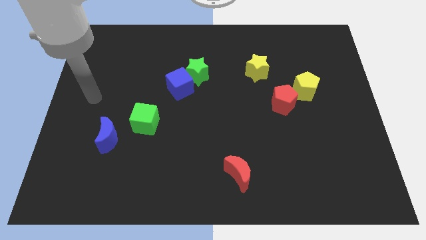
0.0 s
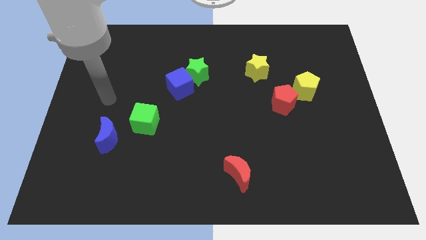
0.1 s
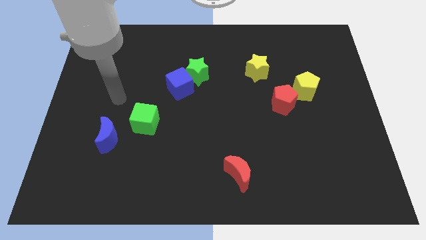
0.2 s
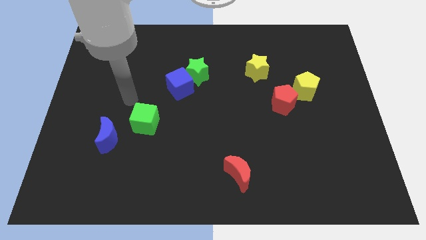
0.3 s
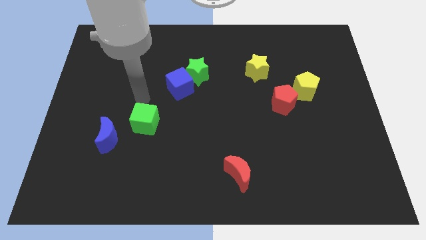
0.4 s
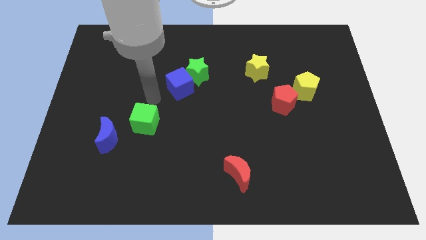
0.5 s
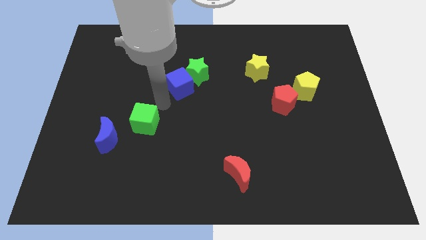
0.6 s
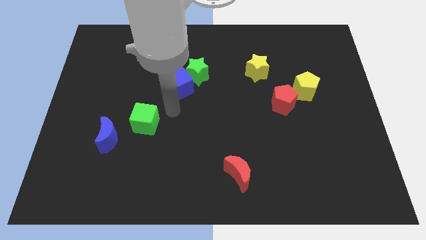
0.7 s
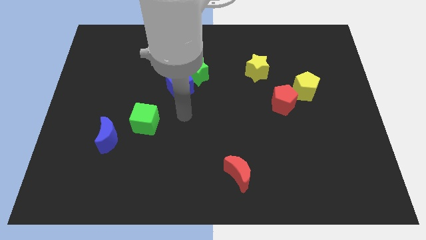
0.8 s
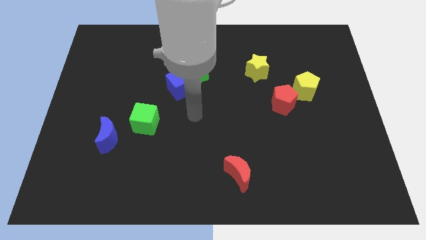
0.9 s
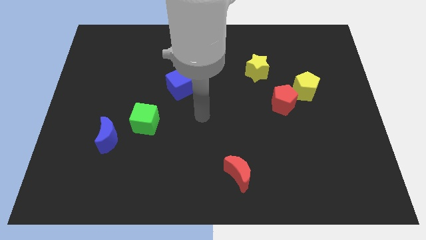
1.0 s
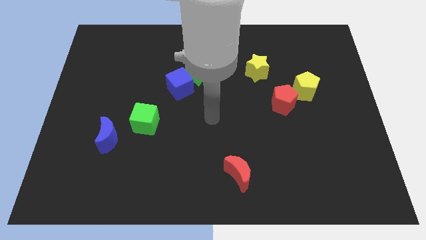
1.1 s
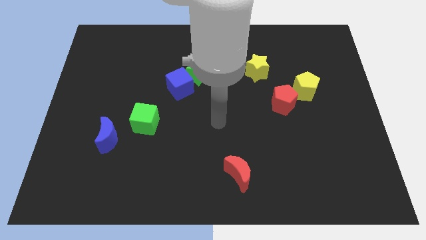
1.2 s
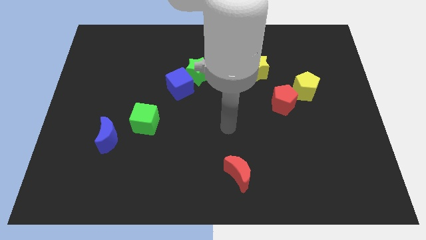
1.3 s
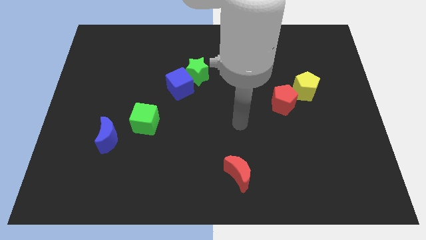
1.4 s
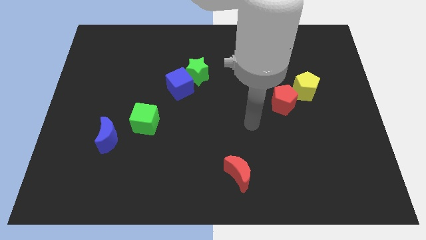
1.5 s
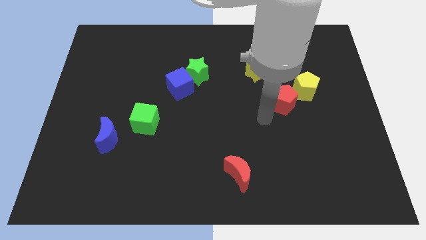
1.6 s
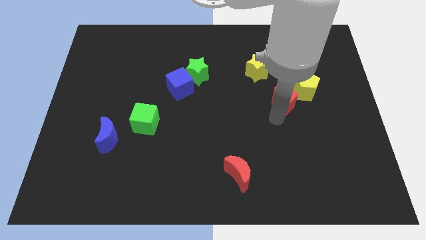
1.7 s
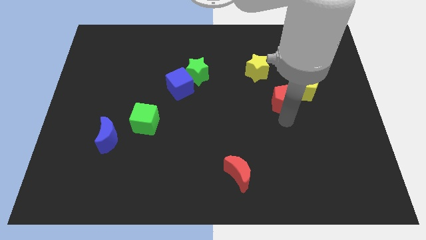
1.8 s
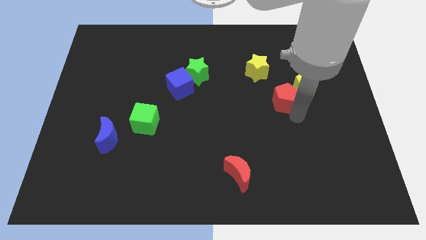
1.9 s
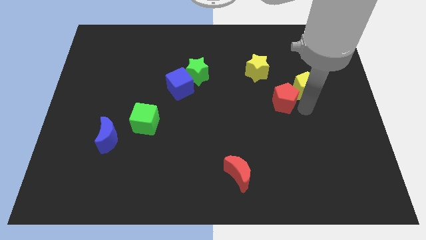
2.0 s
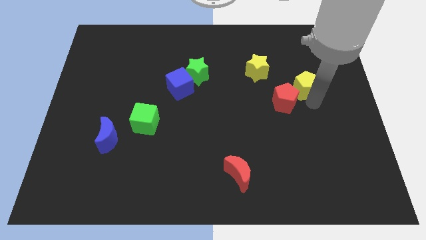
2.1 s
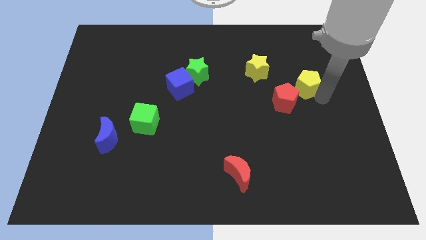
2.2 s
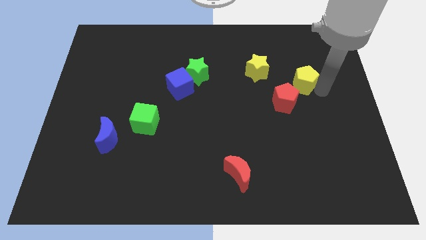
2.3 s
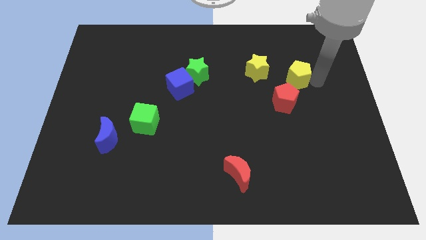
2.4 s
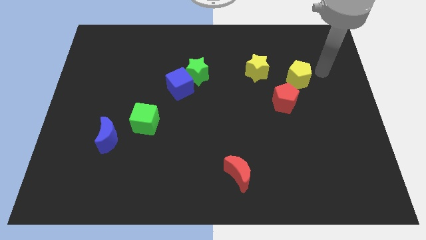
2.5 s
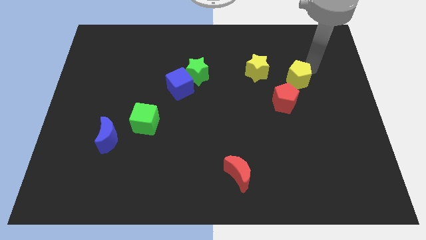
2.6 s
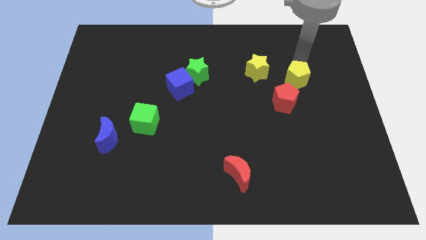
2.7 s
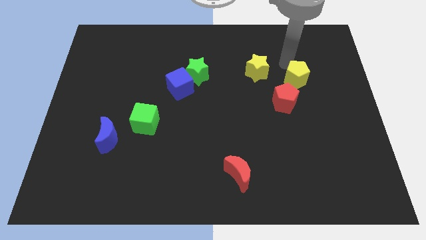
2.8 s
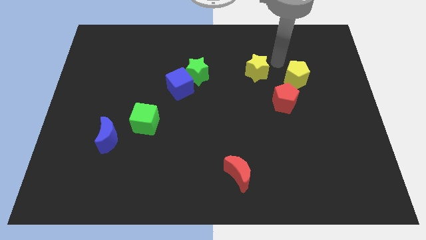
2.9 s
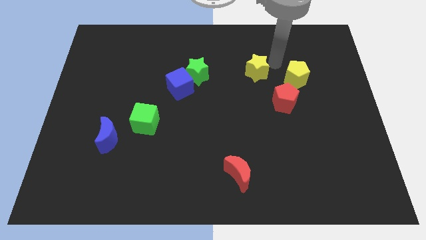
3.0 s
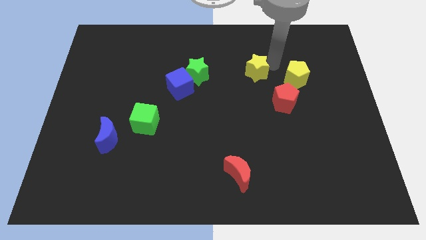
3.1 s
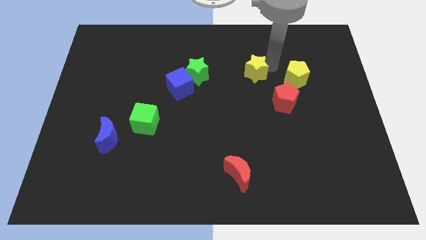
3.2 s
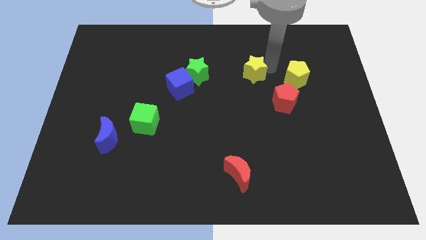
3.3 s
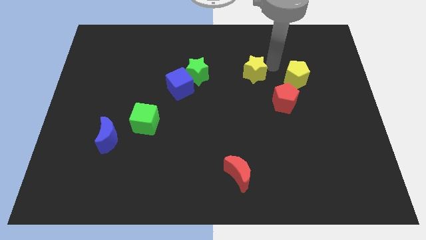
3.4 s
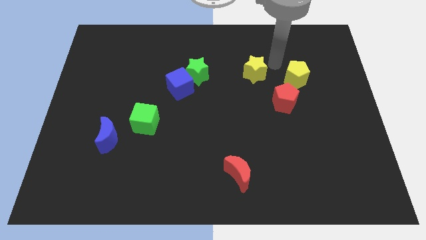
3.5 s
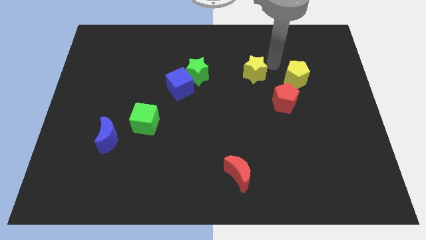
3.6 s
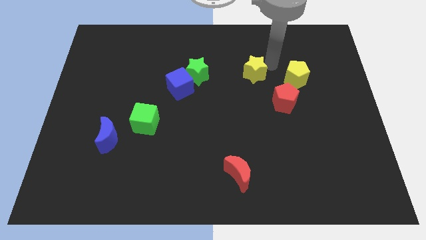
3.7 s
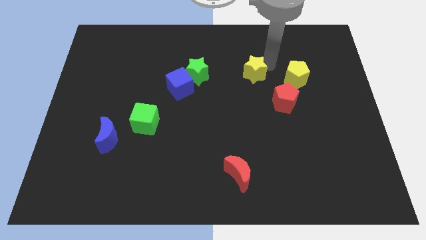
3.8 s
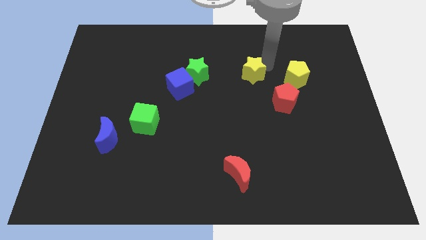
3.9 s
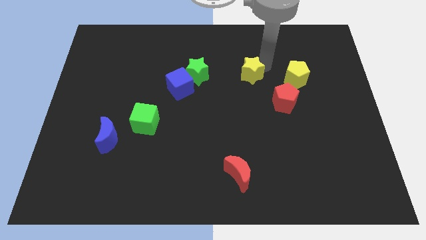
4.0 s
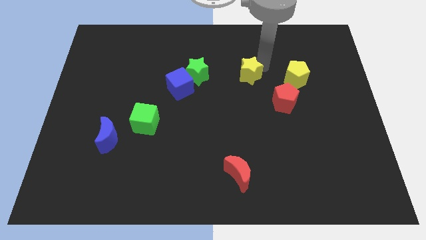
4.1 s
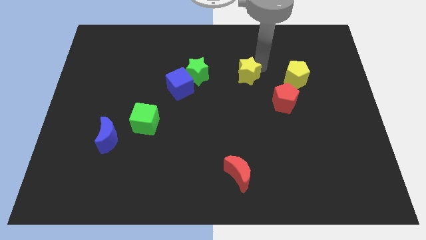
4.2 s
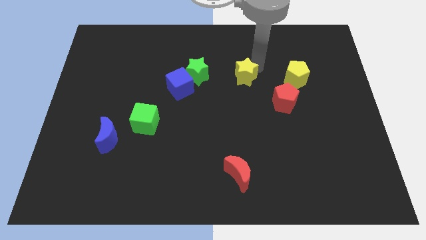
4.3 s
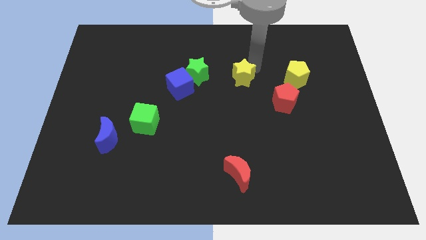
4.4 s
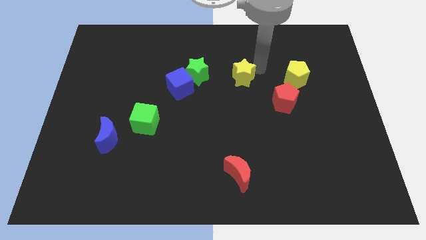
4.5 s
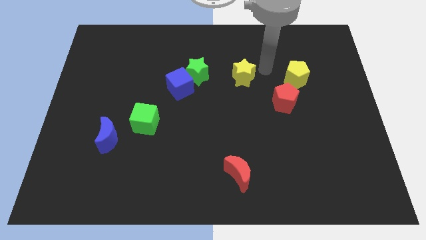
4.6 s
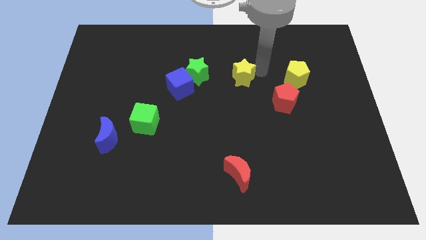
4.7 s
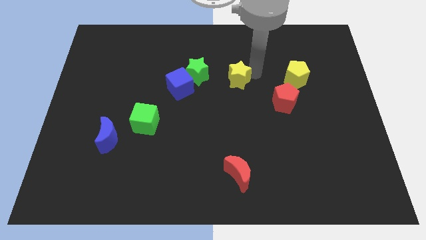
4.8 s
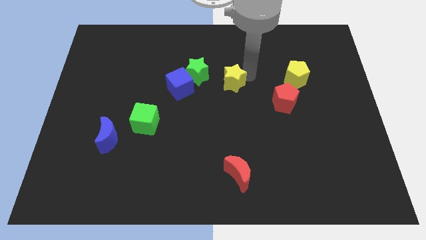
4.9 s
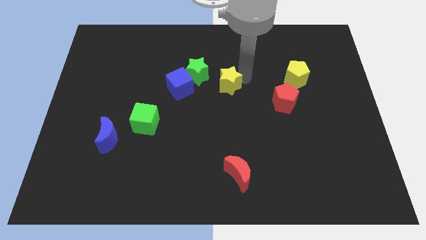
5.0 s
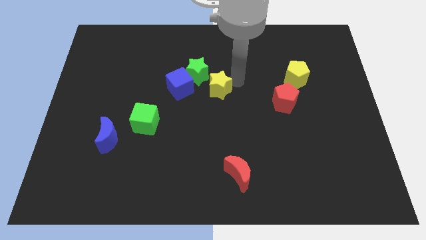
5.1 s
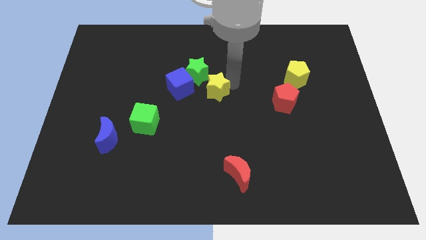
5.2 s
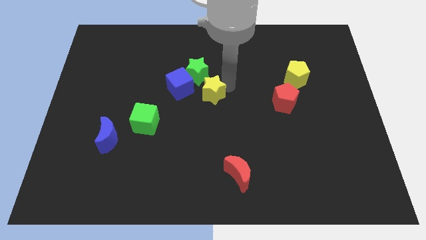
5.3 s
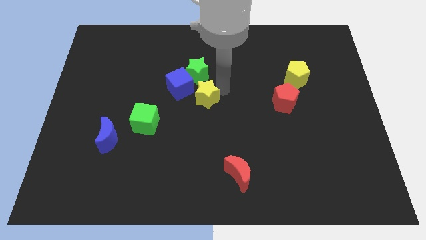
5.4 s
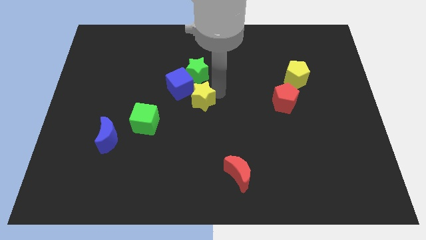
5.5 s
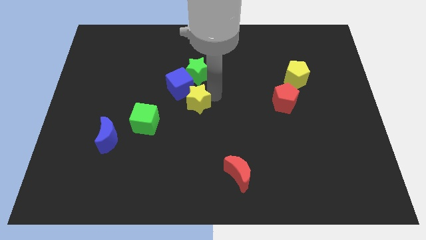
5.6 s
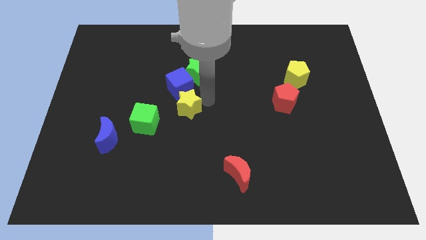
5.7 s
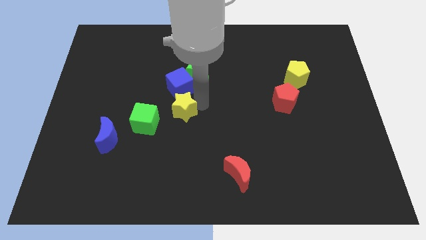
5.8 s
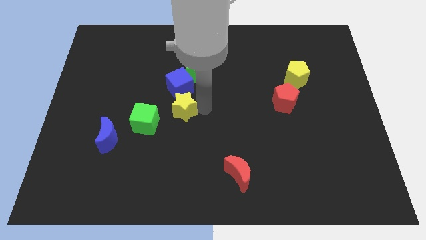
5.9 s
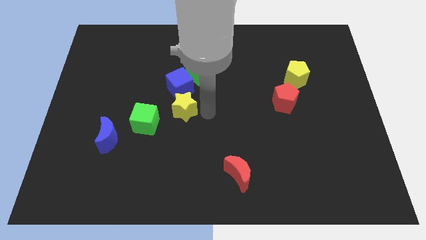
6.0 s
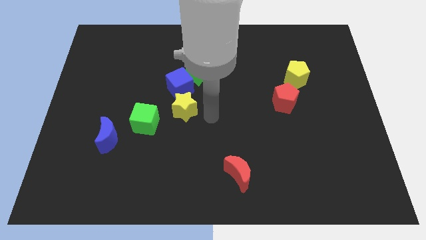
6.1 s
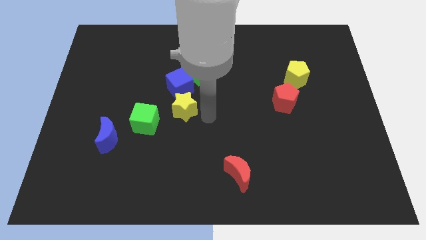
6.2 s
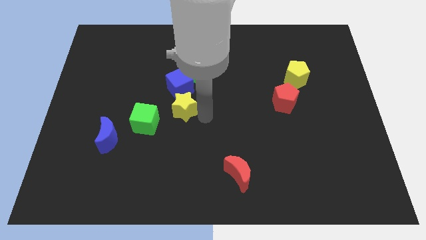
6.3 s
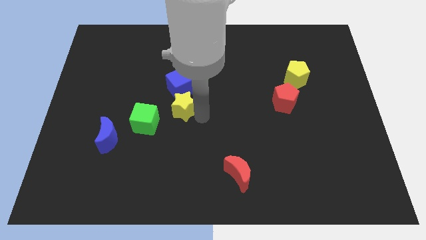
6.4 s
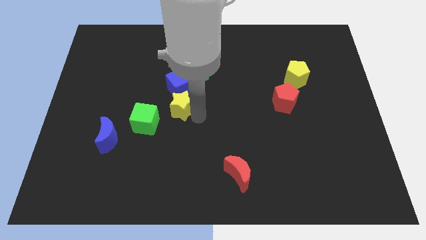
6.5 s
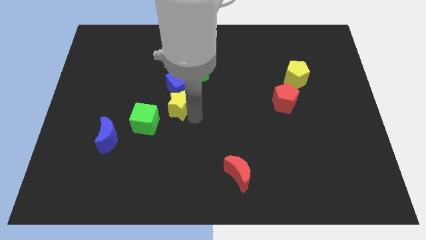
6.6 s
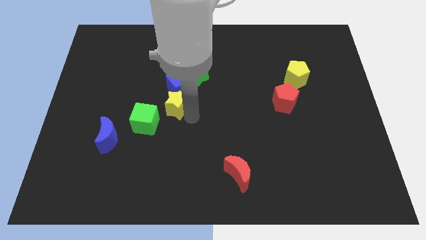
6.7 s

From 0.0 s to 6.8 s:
push the yellow star to the bottom left side of the blue cube
